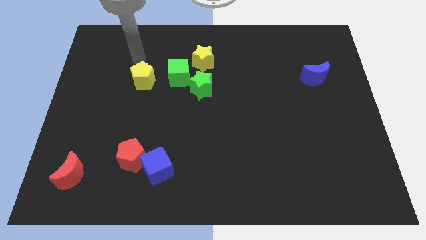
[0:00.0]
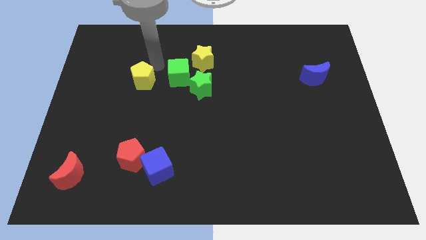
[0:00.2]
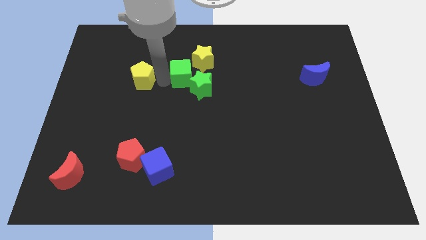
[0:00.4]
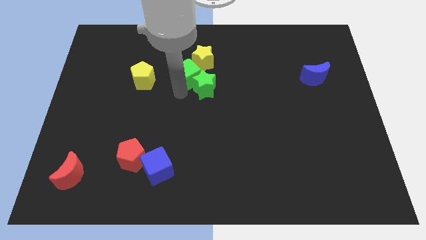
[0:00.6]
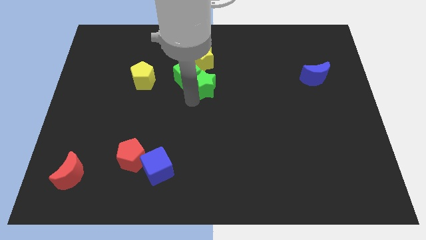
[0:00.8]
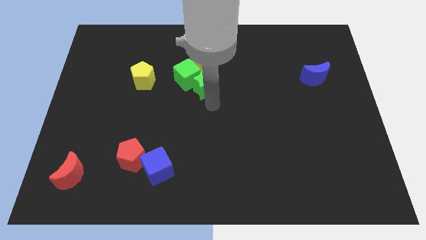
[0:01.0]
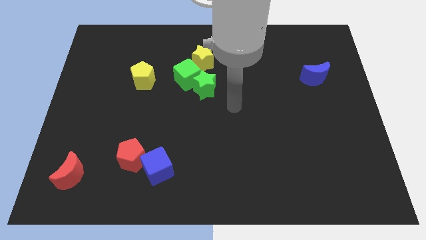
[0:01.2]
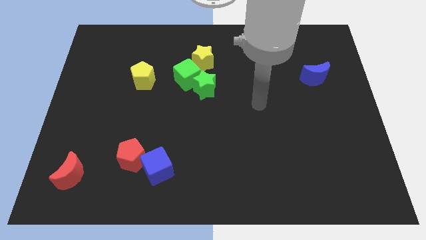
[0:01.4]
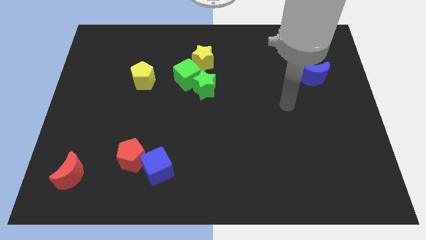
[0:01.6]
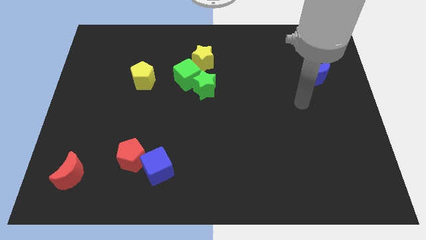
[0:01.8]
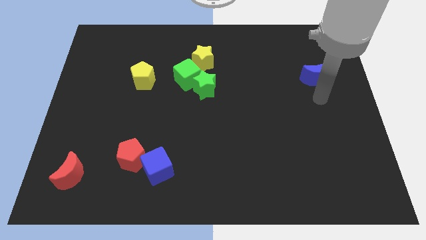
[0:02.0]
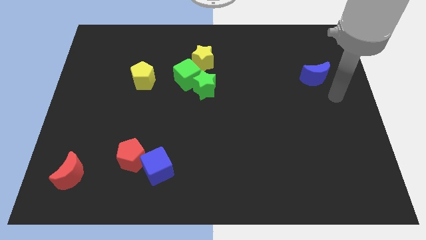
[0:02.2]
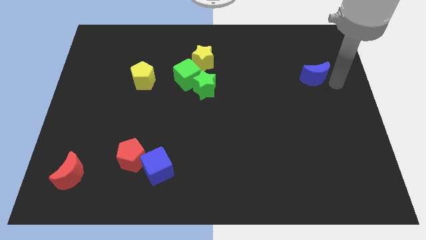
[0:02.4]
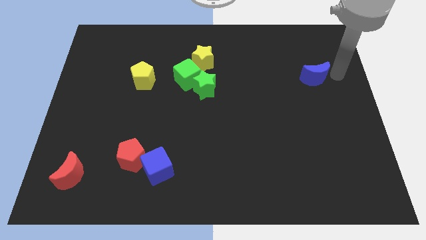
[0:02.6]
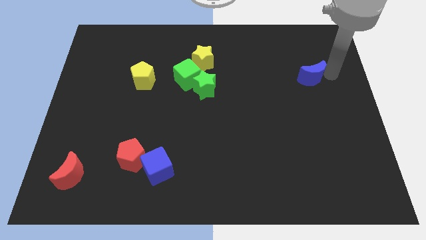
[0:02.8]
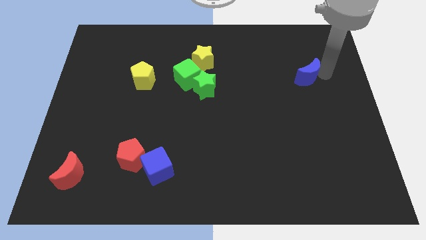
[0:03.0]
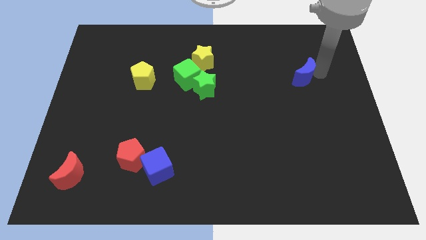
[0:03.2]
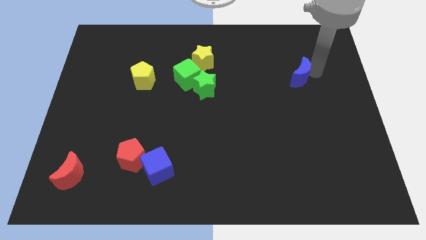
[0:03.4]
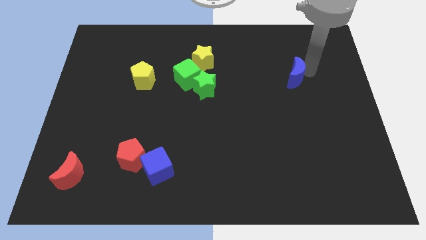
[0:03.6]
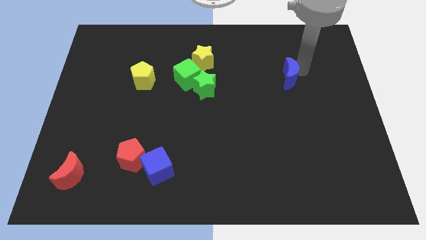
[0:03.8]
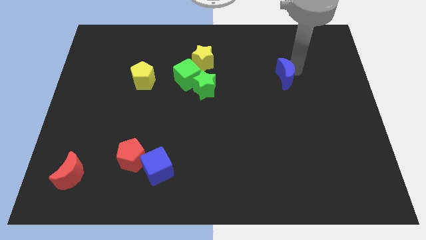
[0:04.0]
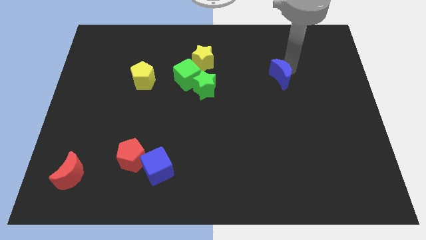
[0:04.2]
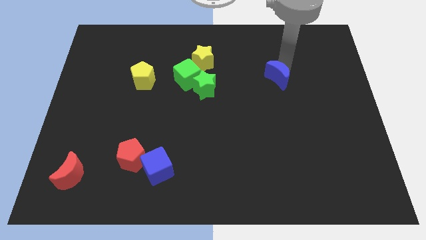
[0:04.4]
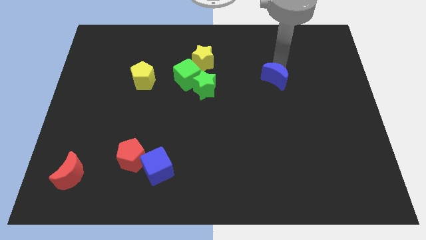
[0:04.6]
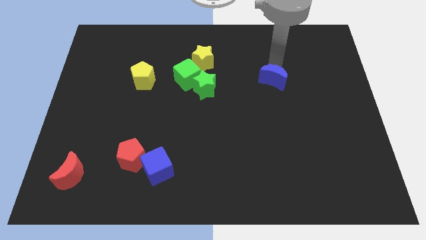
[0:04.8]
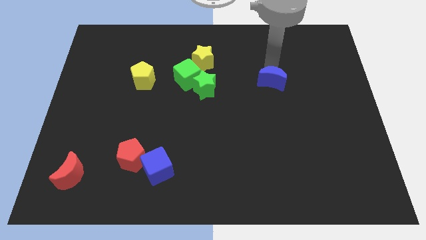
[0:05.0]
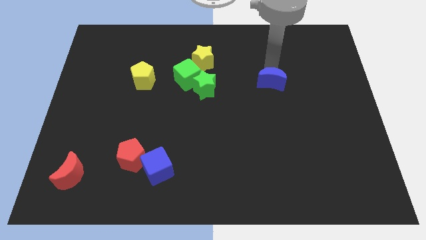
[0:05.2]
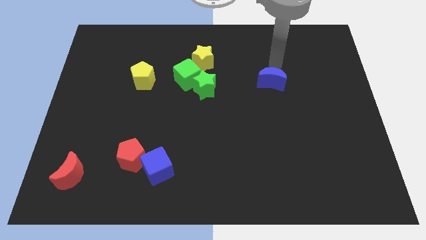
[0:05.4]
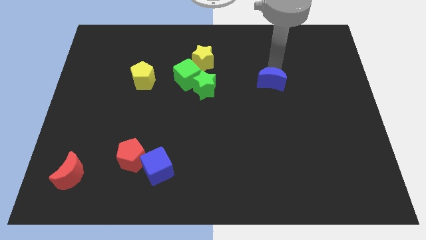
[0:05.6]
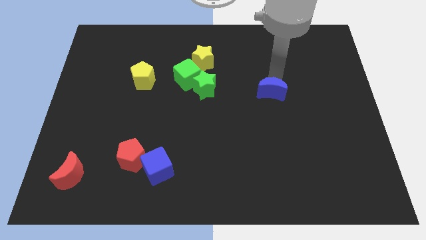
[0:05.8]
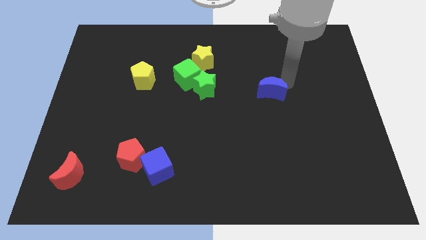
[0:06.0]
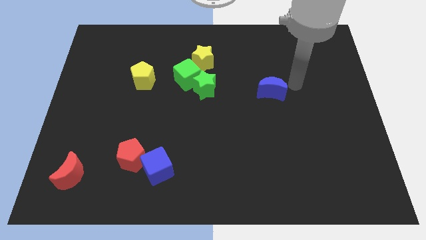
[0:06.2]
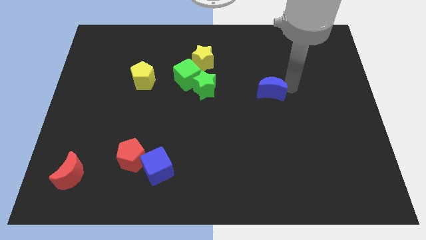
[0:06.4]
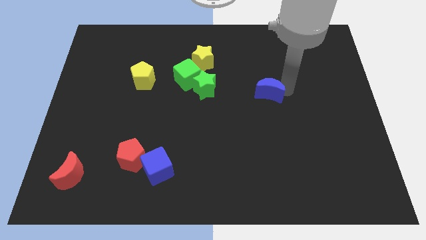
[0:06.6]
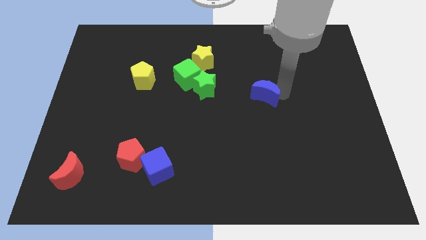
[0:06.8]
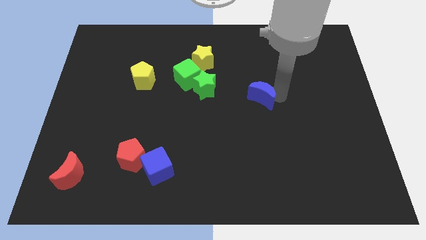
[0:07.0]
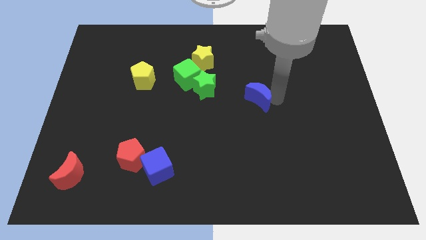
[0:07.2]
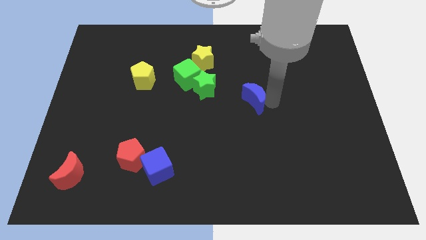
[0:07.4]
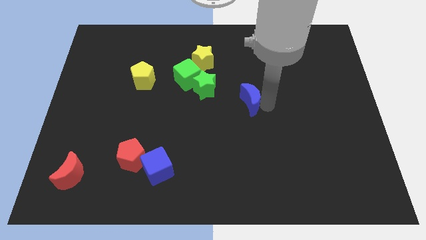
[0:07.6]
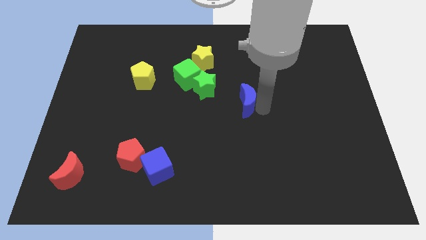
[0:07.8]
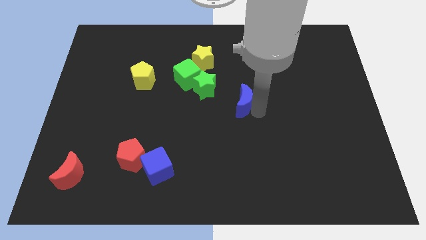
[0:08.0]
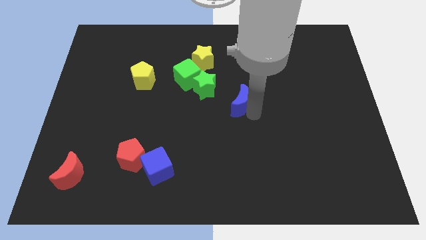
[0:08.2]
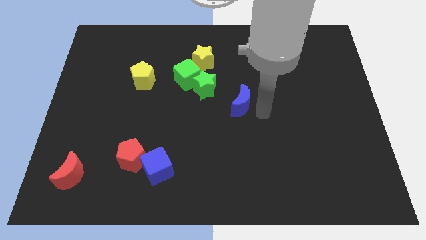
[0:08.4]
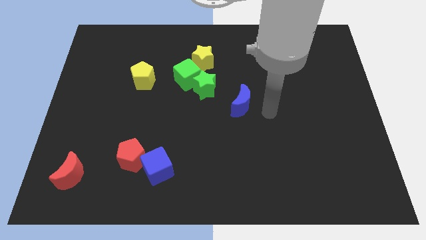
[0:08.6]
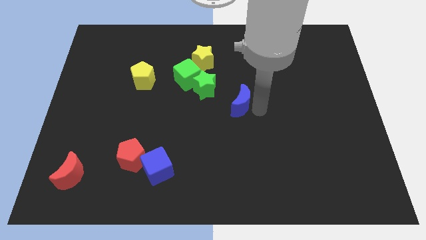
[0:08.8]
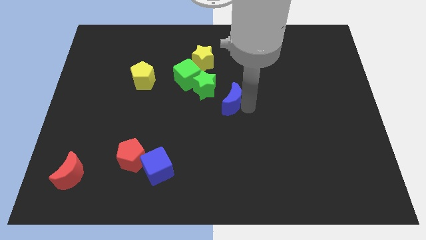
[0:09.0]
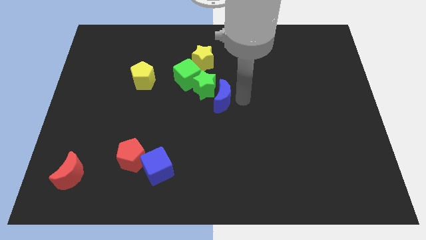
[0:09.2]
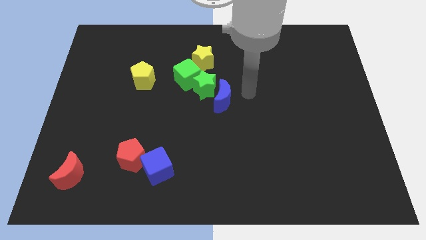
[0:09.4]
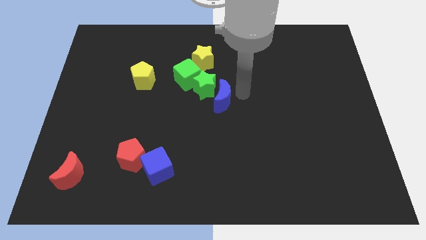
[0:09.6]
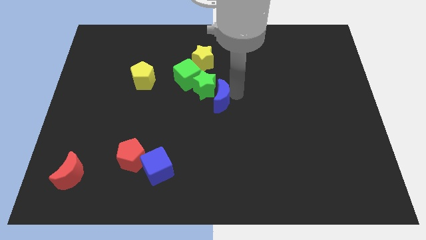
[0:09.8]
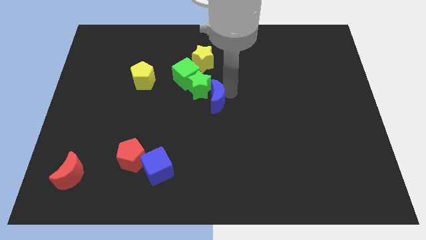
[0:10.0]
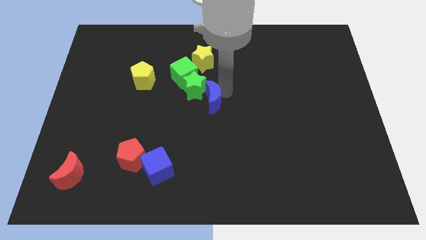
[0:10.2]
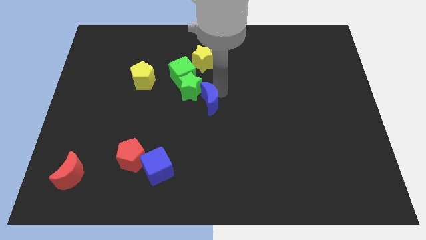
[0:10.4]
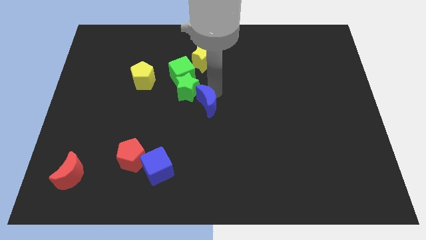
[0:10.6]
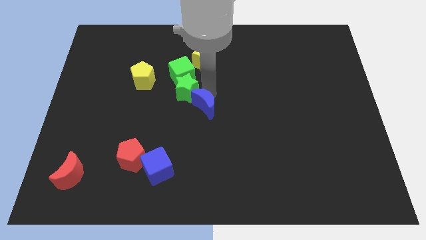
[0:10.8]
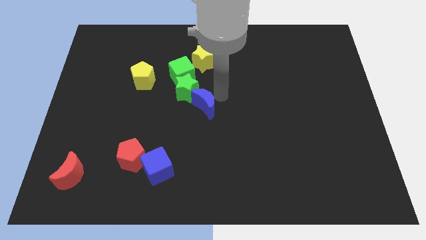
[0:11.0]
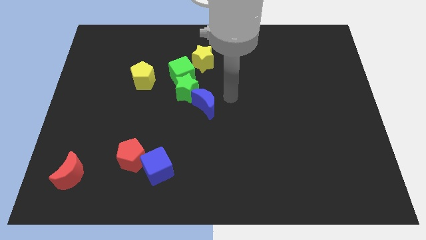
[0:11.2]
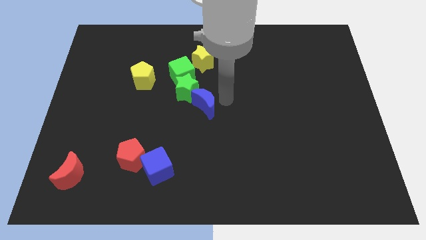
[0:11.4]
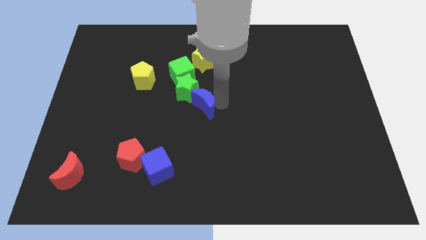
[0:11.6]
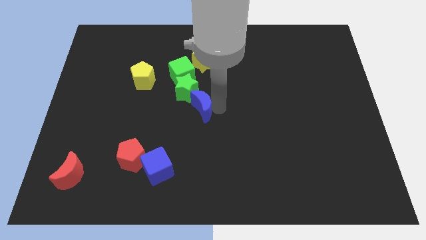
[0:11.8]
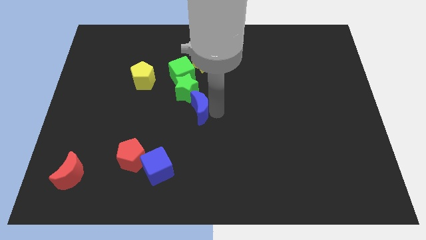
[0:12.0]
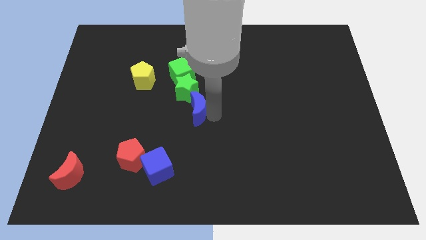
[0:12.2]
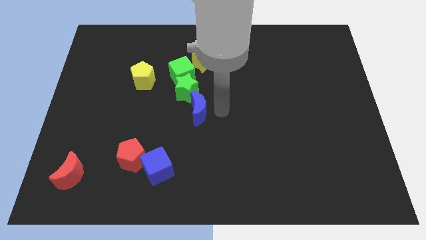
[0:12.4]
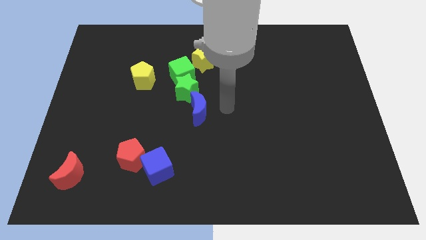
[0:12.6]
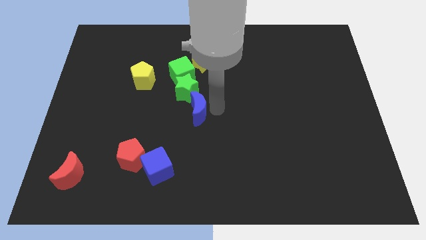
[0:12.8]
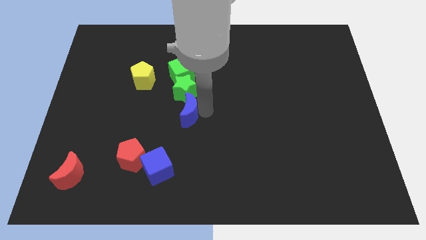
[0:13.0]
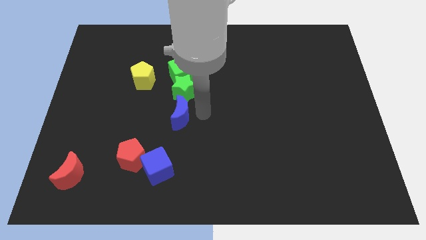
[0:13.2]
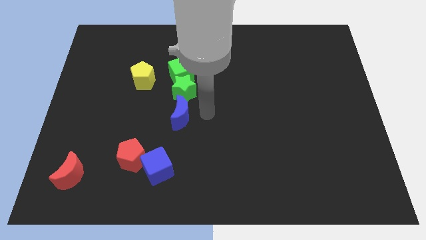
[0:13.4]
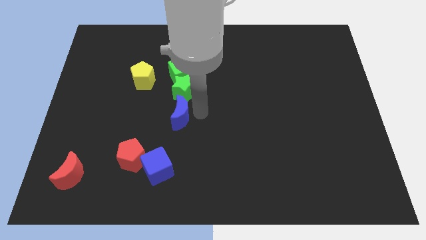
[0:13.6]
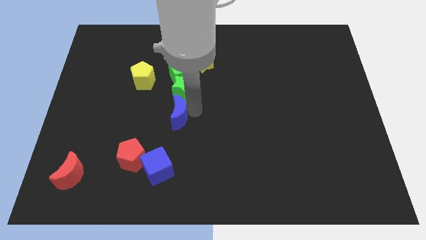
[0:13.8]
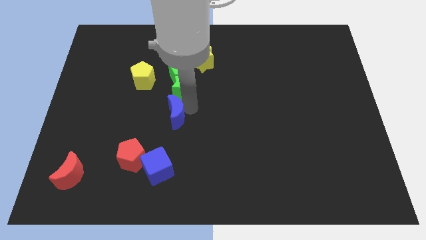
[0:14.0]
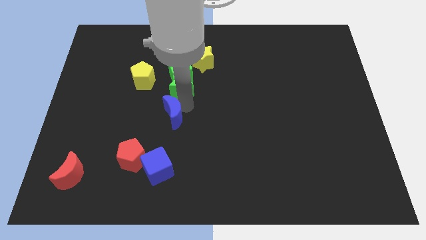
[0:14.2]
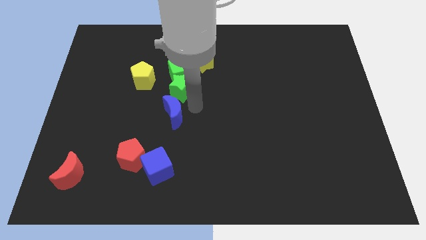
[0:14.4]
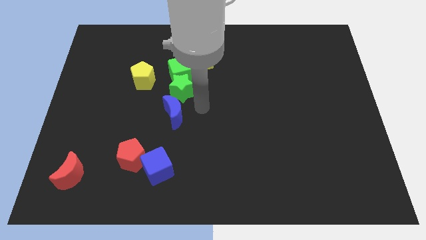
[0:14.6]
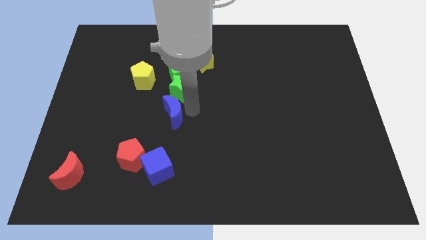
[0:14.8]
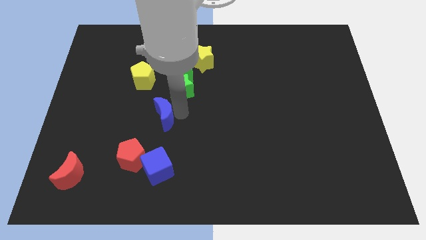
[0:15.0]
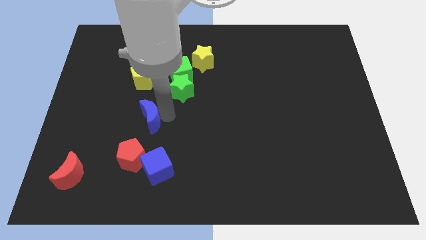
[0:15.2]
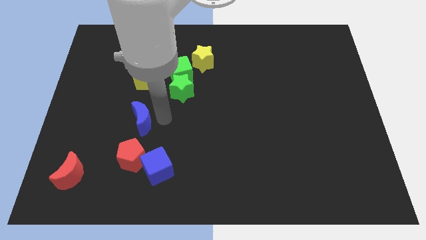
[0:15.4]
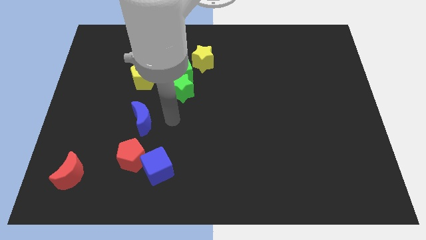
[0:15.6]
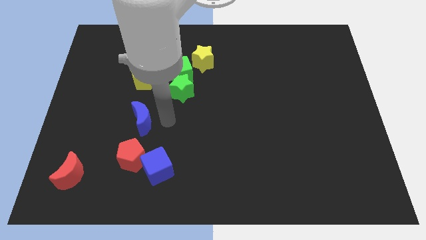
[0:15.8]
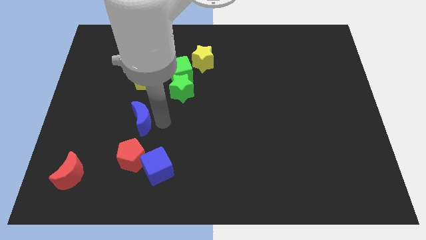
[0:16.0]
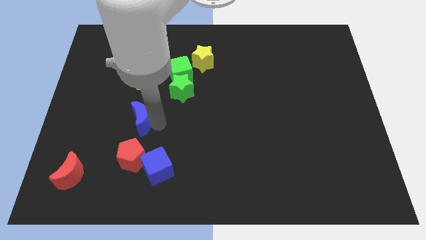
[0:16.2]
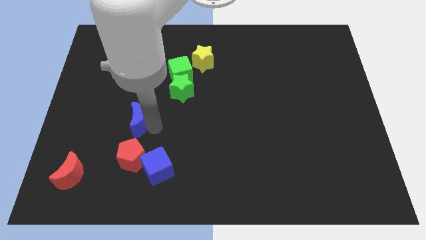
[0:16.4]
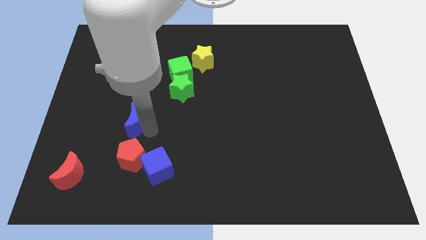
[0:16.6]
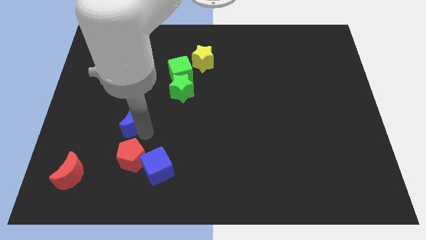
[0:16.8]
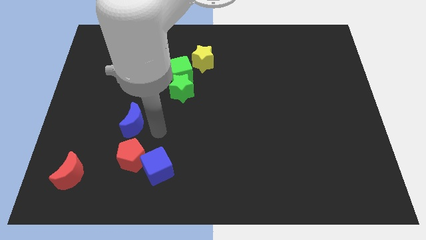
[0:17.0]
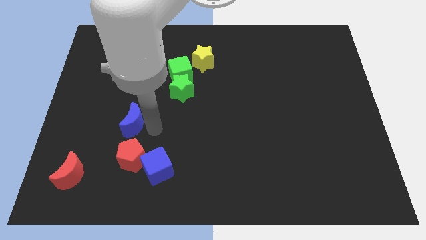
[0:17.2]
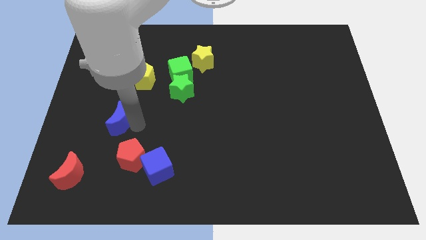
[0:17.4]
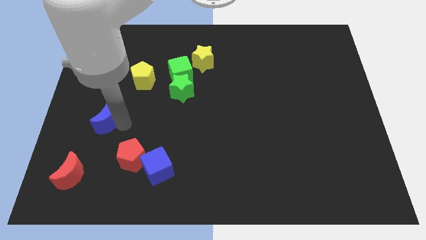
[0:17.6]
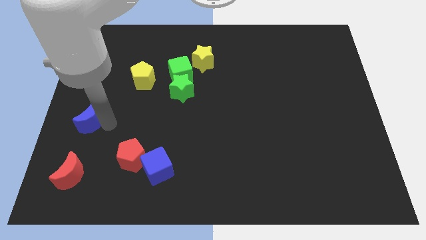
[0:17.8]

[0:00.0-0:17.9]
push the blue moon to the left side
